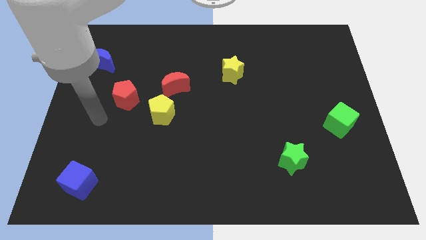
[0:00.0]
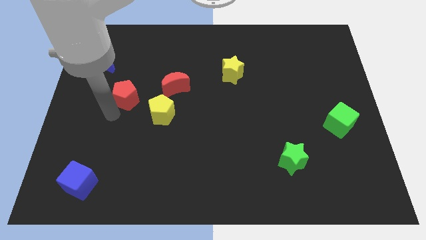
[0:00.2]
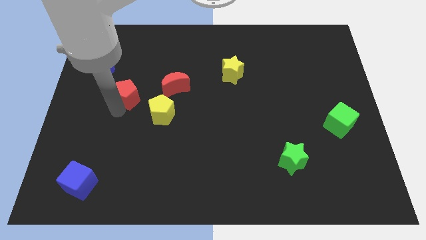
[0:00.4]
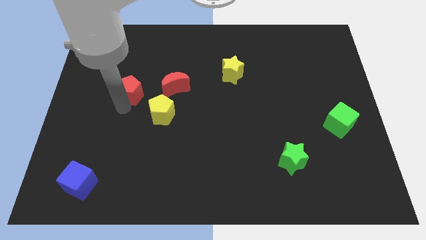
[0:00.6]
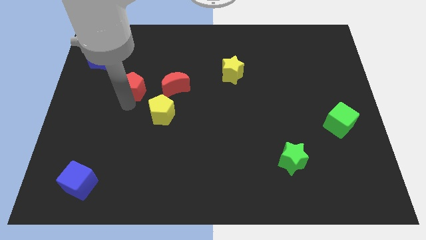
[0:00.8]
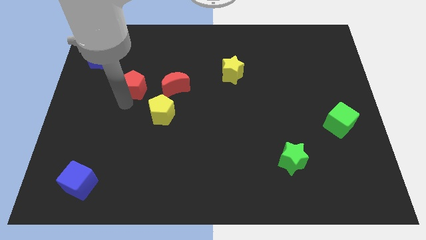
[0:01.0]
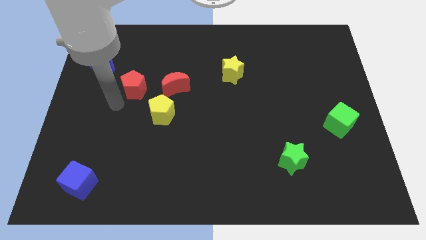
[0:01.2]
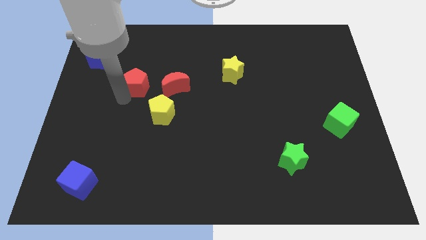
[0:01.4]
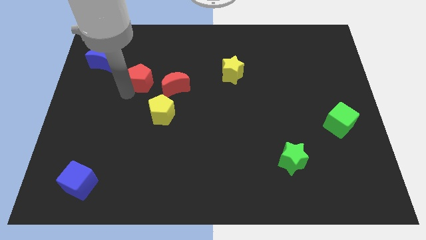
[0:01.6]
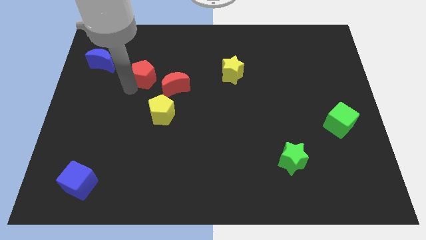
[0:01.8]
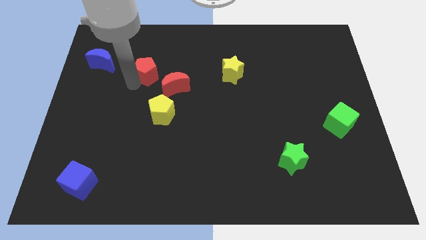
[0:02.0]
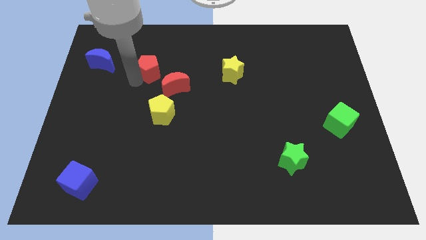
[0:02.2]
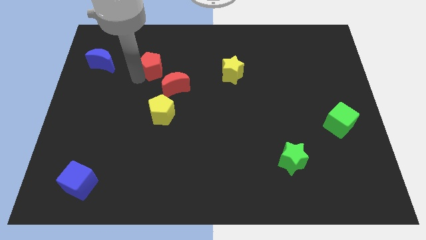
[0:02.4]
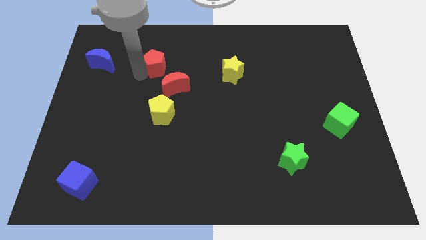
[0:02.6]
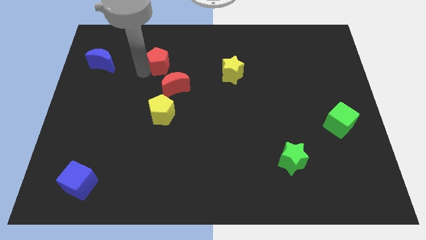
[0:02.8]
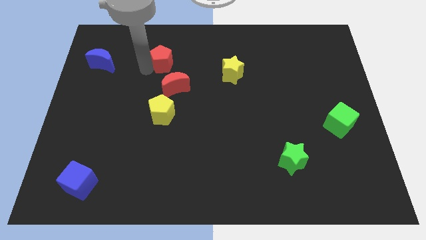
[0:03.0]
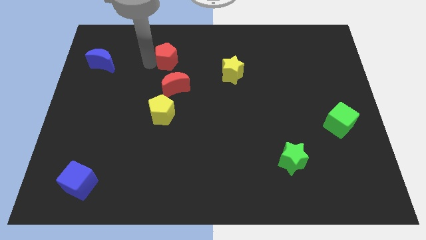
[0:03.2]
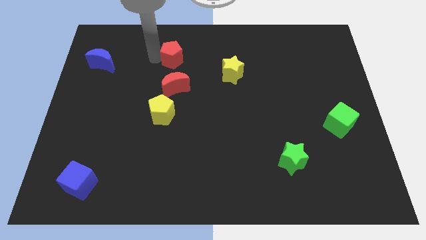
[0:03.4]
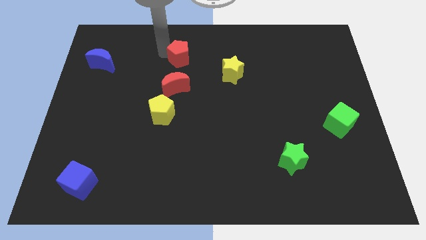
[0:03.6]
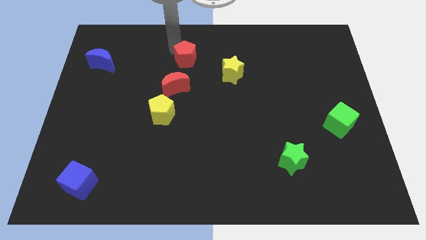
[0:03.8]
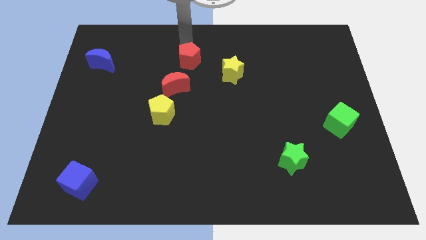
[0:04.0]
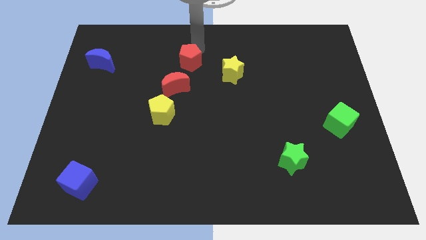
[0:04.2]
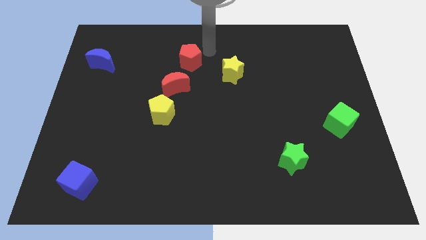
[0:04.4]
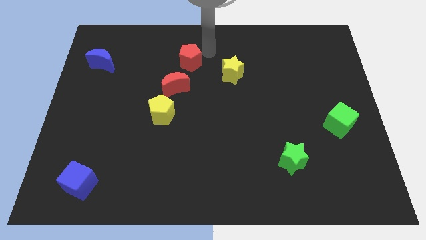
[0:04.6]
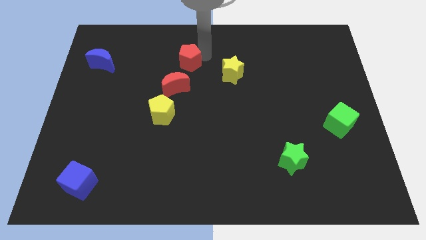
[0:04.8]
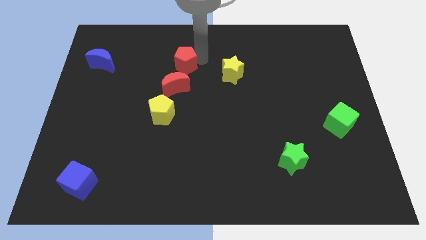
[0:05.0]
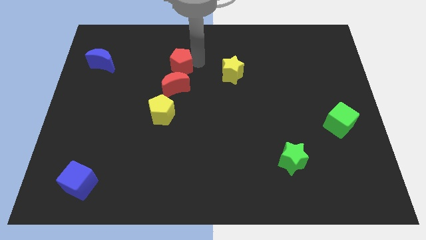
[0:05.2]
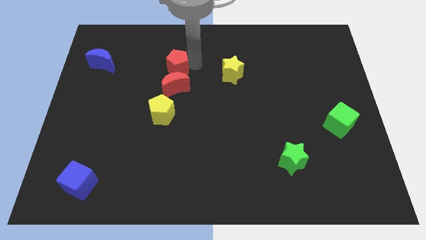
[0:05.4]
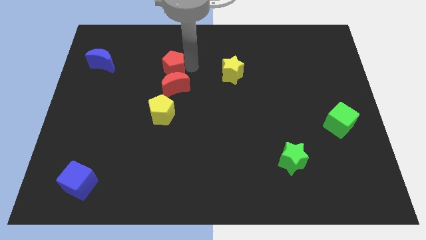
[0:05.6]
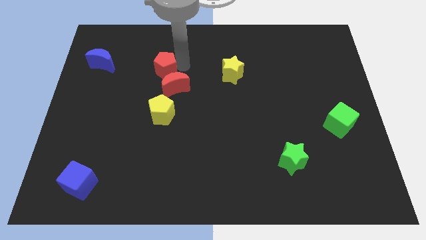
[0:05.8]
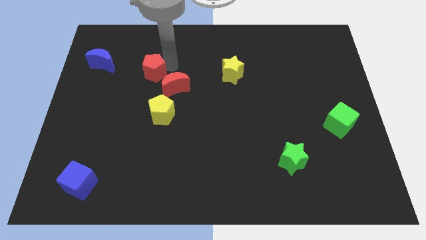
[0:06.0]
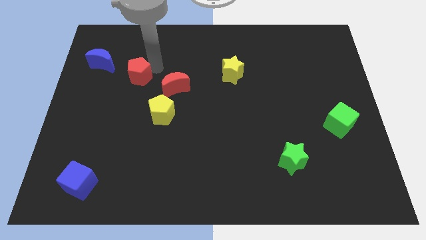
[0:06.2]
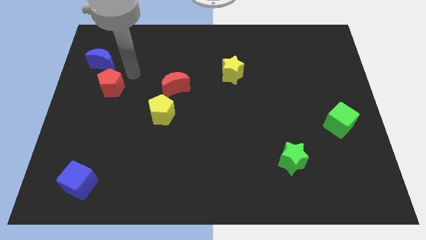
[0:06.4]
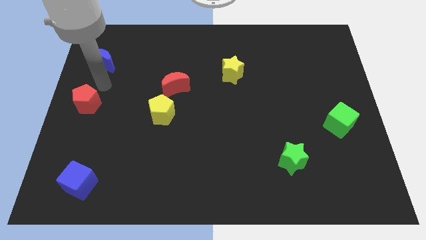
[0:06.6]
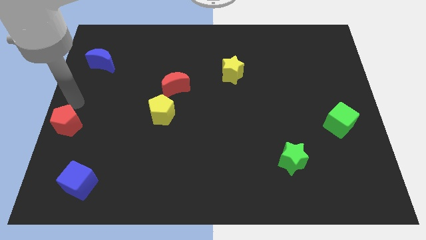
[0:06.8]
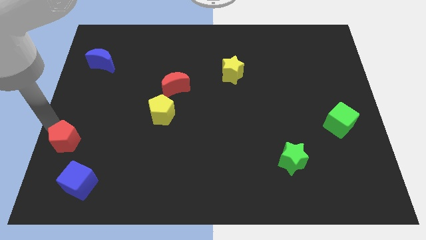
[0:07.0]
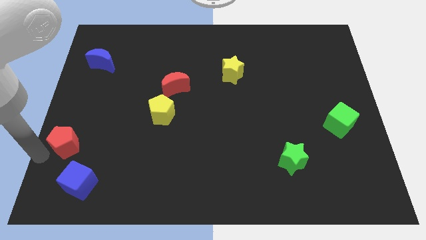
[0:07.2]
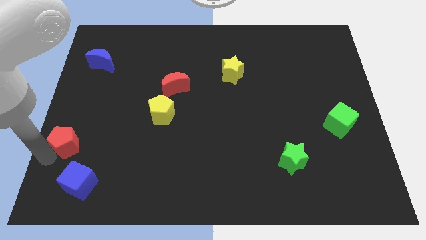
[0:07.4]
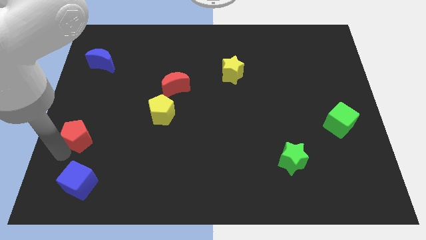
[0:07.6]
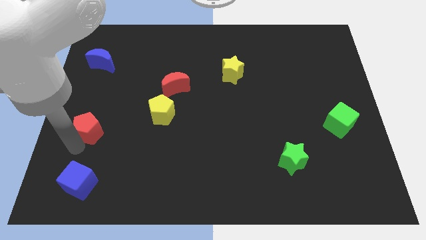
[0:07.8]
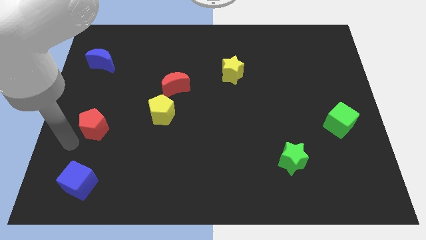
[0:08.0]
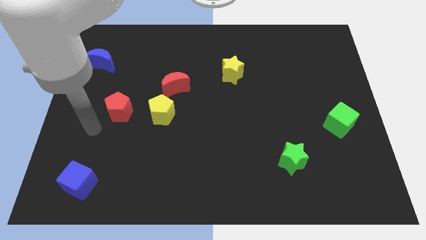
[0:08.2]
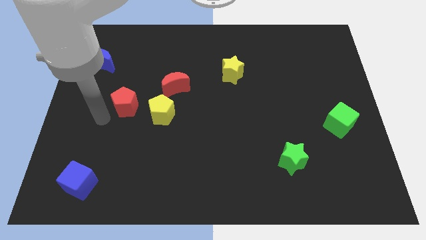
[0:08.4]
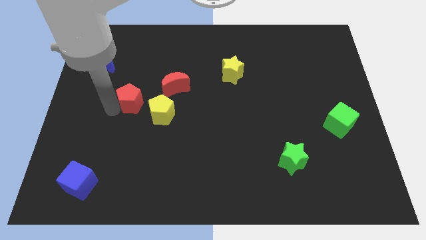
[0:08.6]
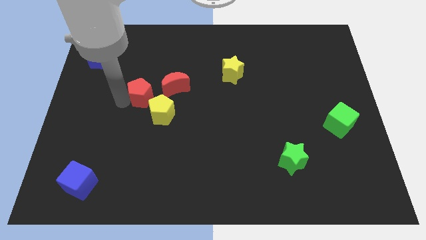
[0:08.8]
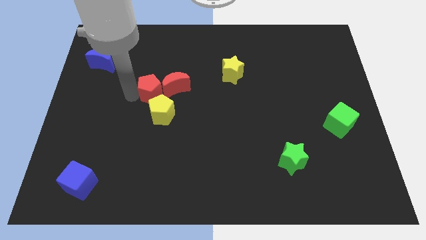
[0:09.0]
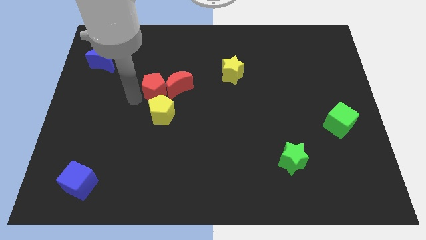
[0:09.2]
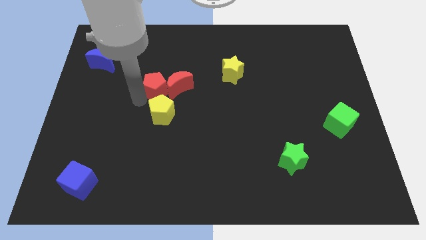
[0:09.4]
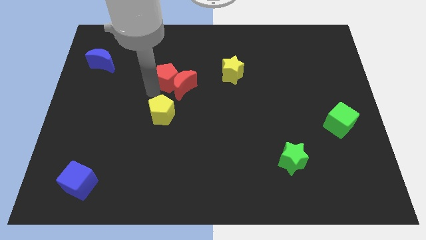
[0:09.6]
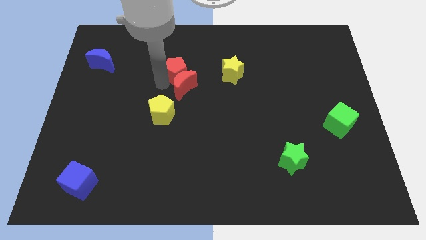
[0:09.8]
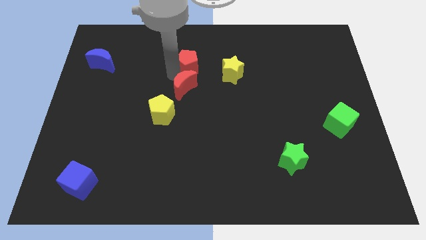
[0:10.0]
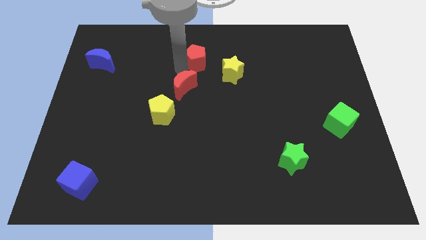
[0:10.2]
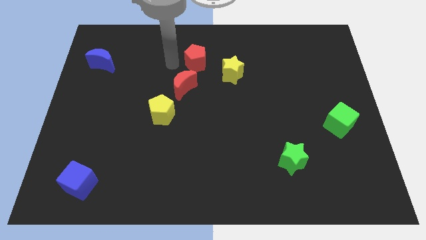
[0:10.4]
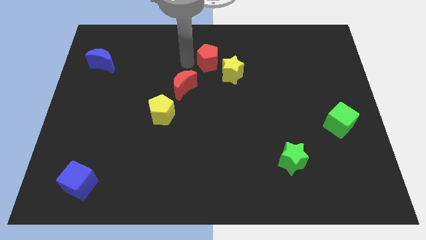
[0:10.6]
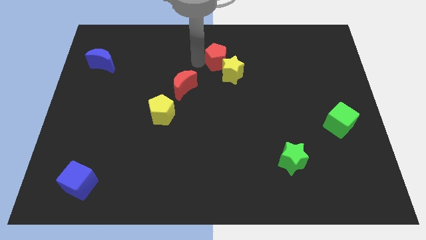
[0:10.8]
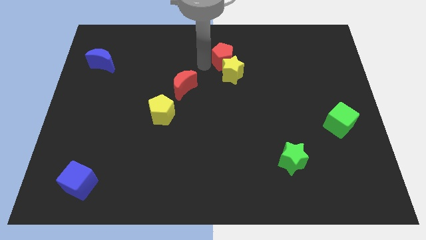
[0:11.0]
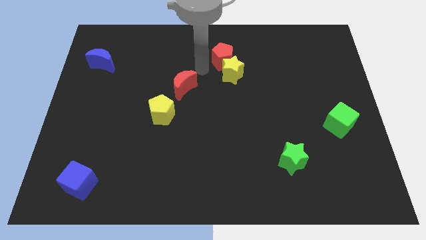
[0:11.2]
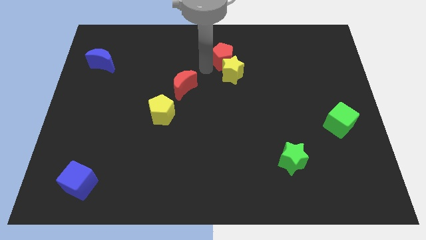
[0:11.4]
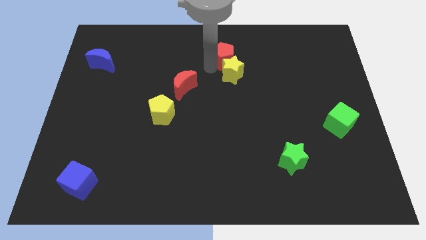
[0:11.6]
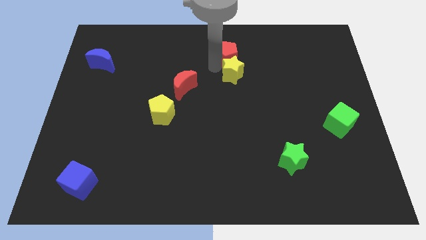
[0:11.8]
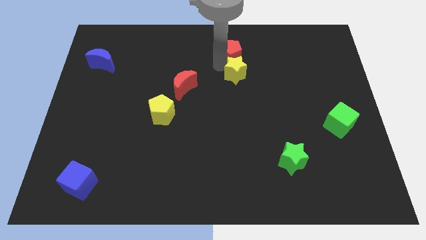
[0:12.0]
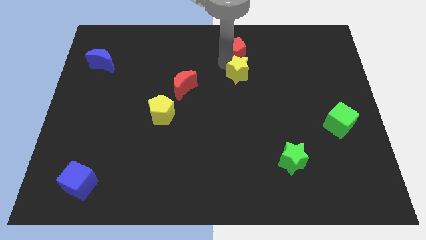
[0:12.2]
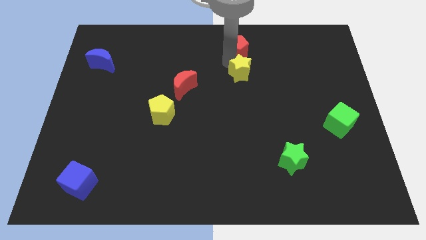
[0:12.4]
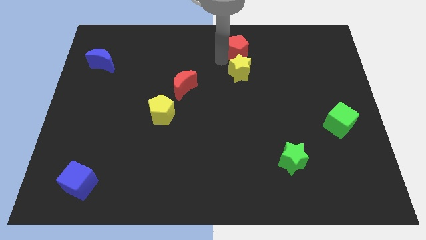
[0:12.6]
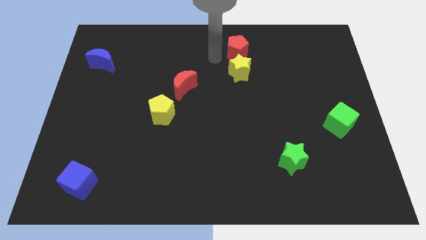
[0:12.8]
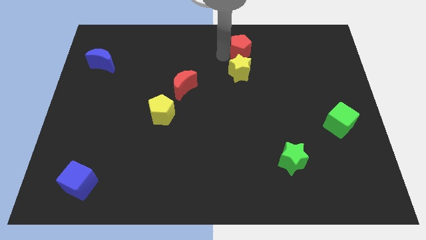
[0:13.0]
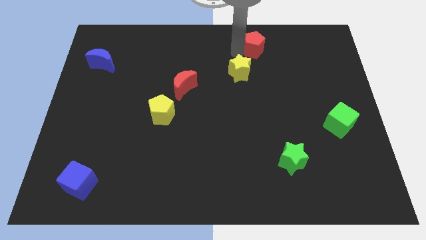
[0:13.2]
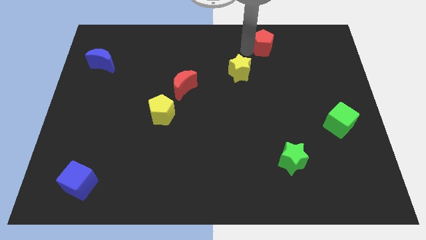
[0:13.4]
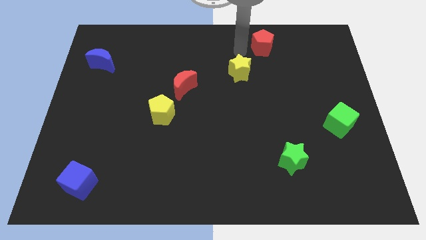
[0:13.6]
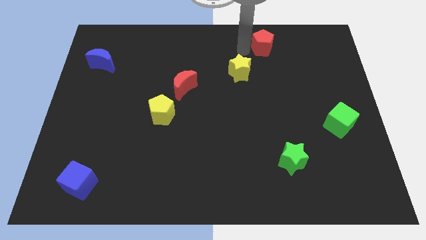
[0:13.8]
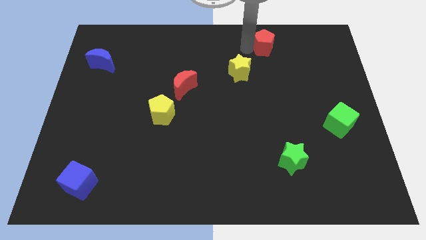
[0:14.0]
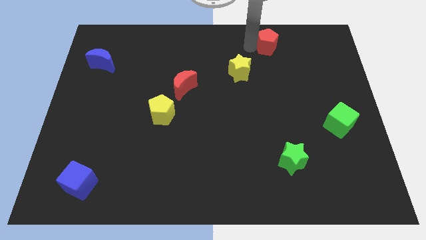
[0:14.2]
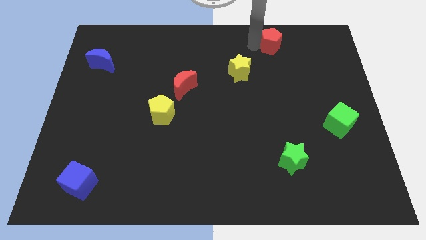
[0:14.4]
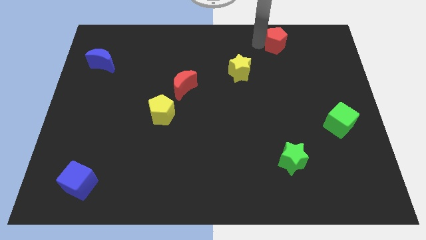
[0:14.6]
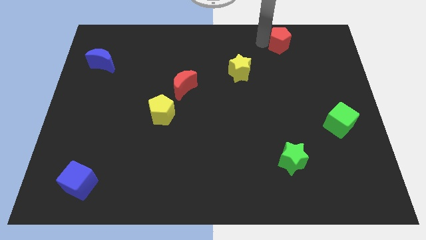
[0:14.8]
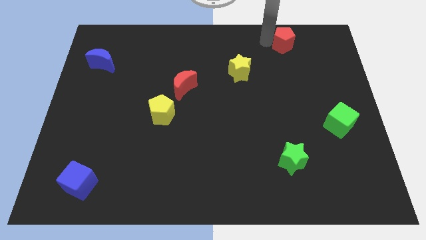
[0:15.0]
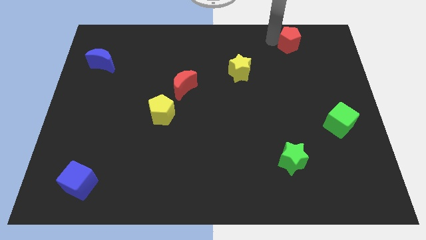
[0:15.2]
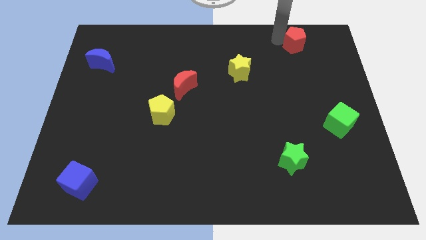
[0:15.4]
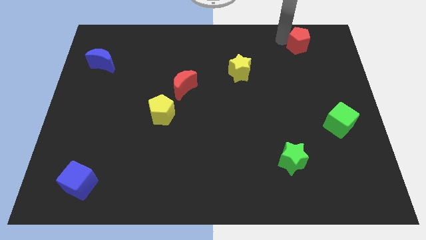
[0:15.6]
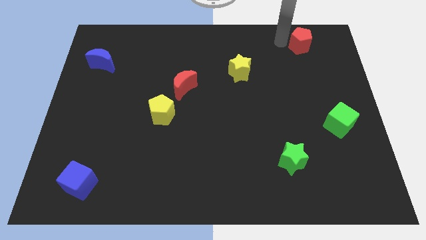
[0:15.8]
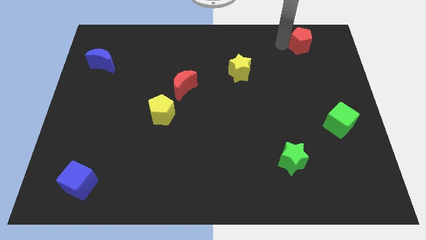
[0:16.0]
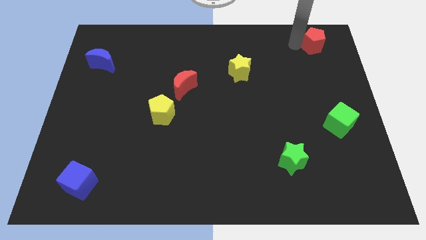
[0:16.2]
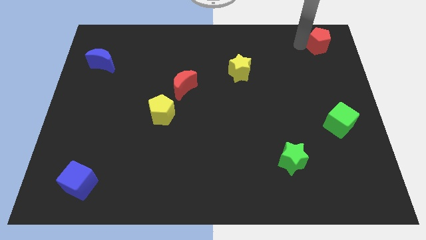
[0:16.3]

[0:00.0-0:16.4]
push the red pentagon to the top right
